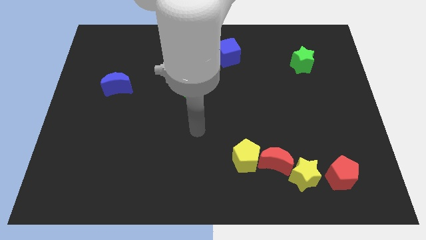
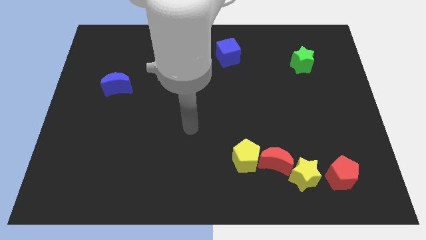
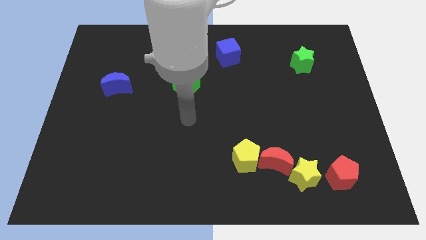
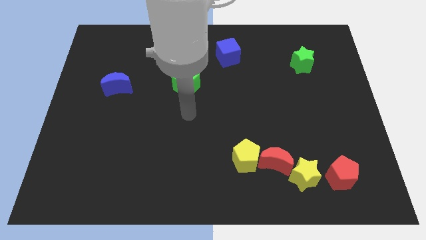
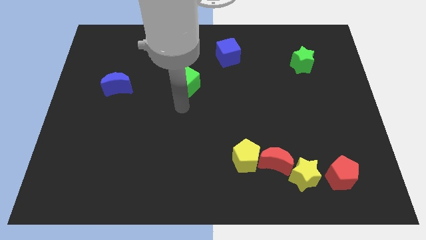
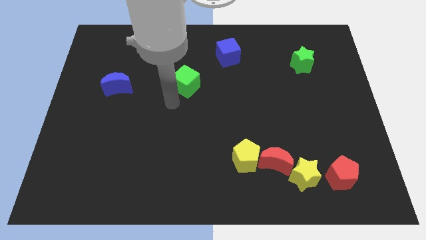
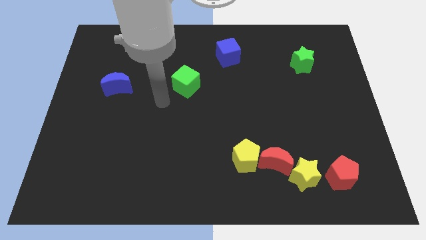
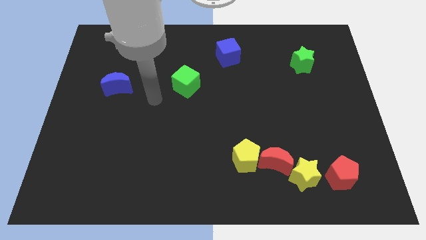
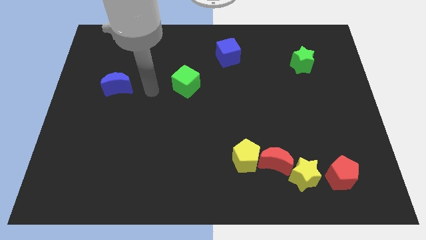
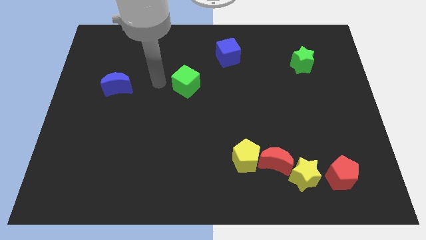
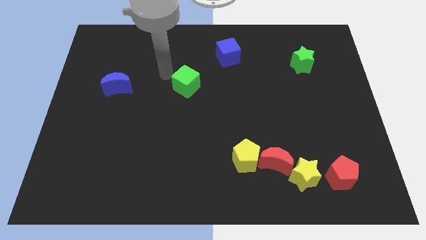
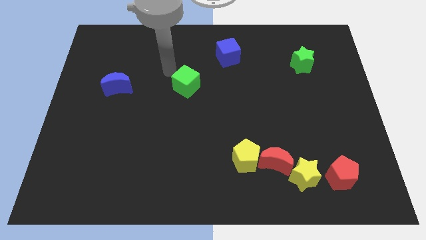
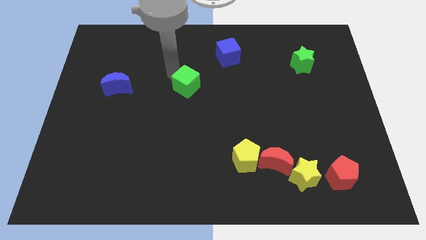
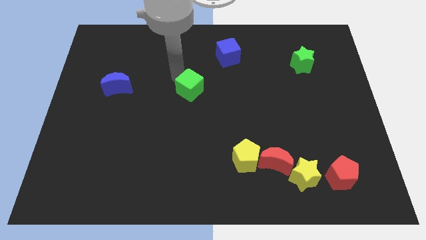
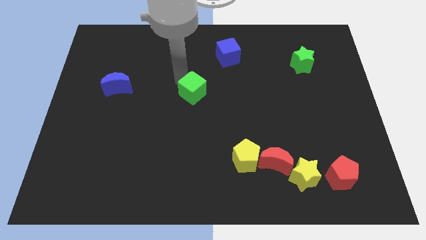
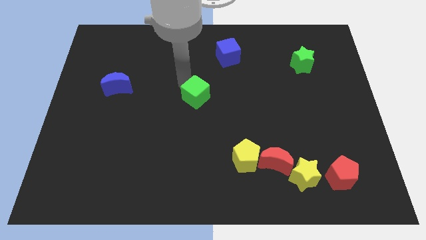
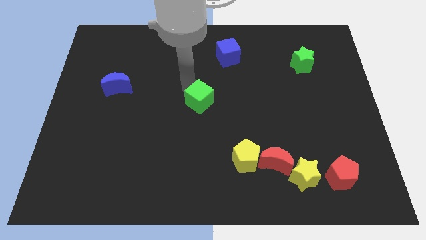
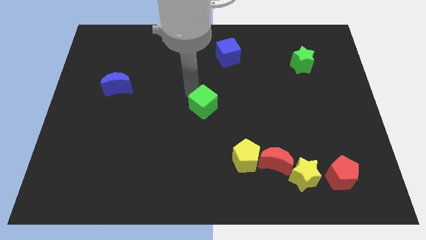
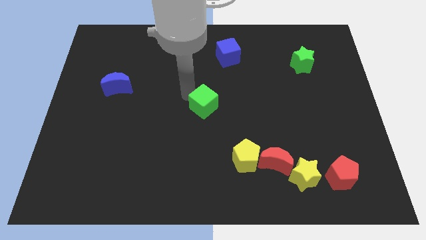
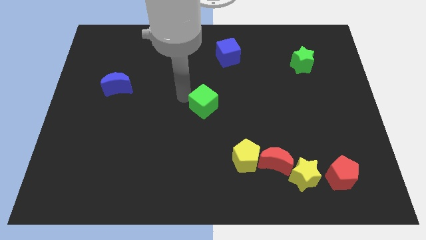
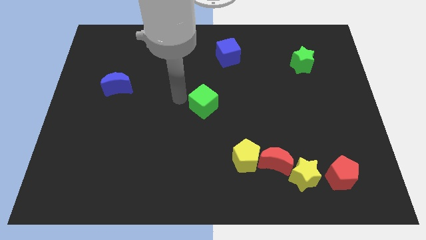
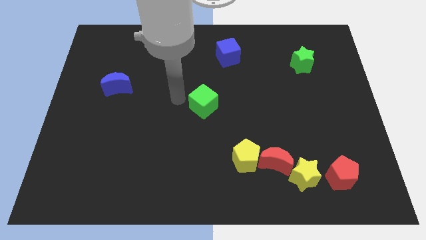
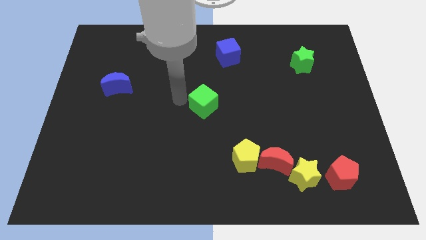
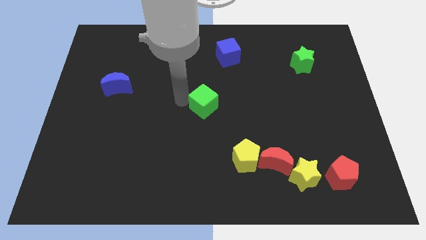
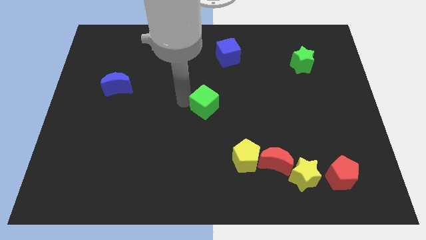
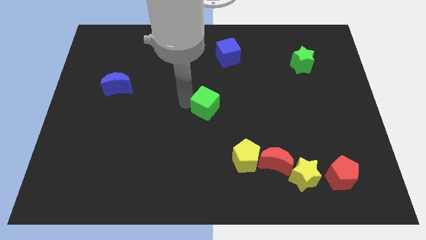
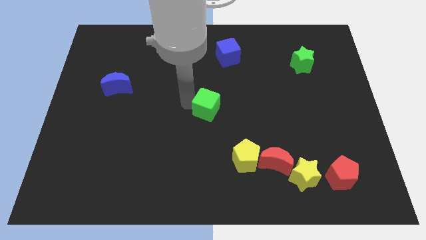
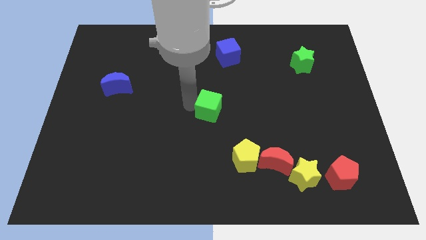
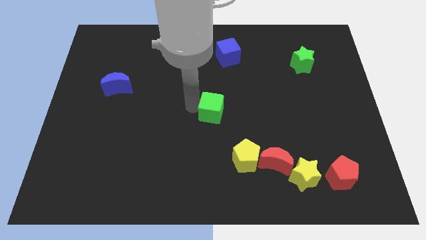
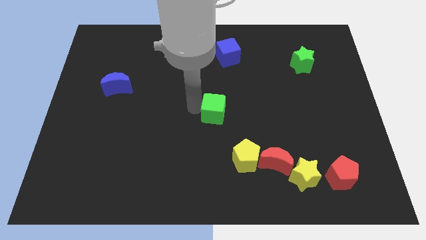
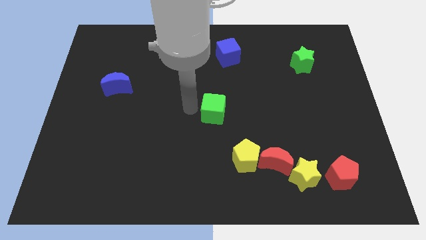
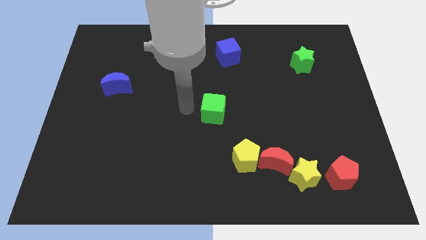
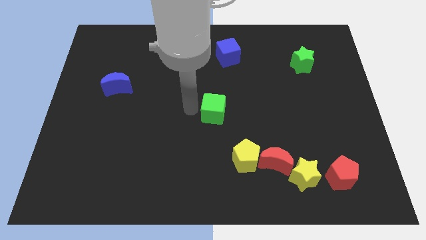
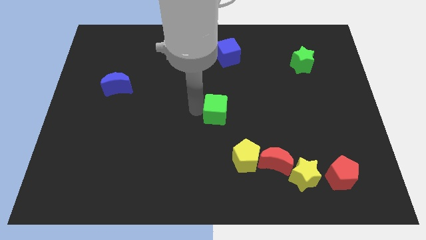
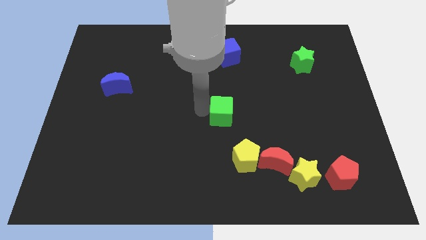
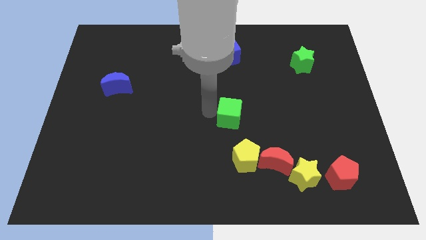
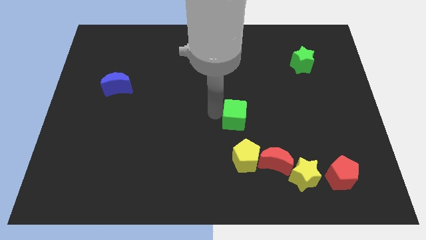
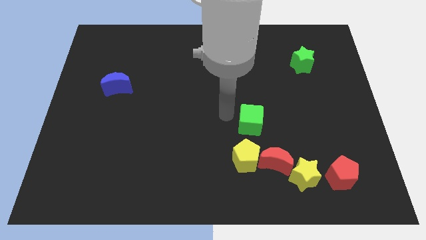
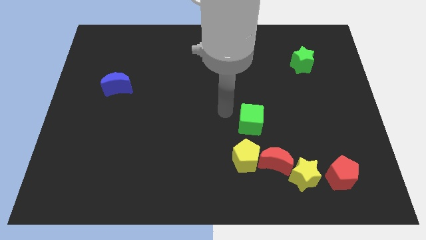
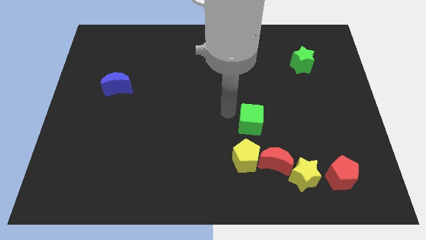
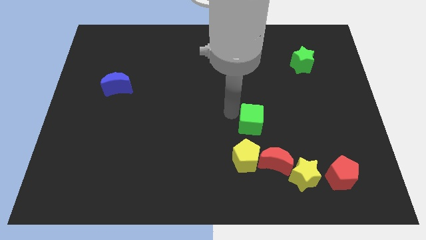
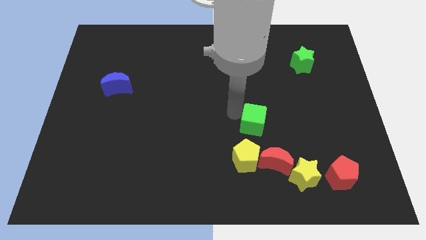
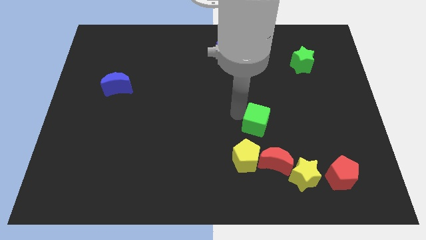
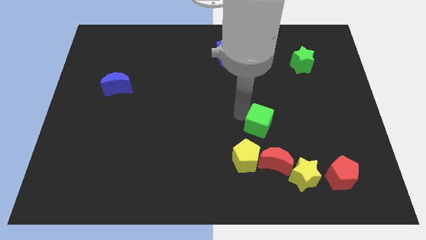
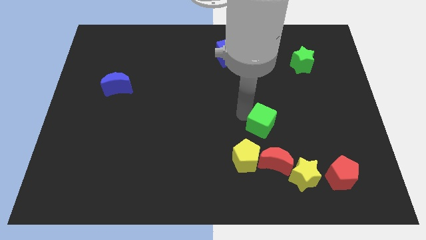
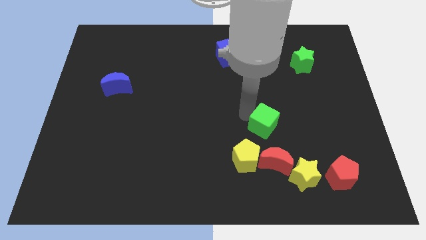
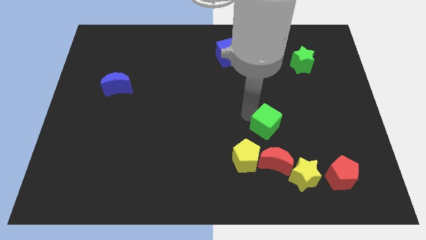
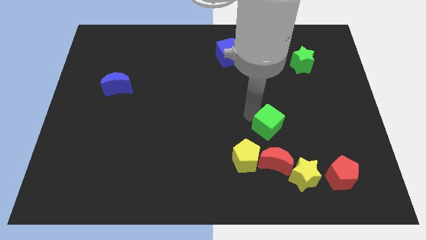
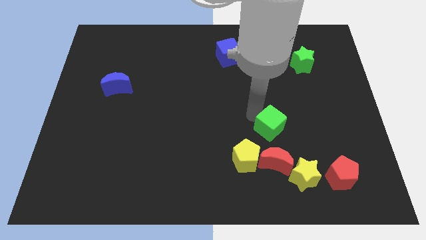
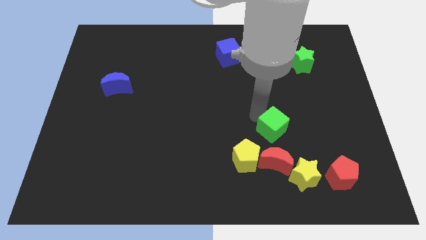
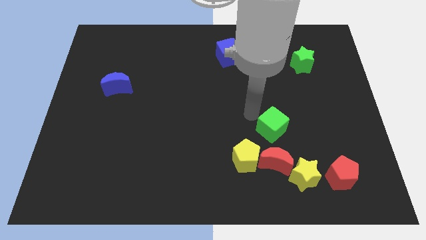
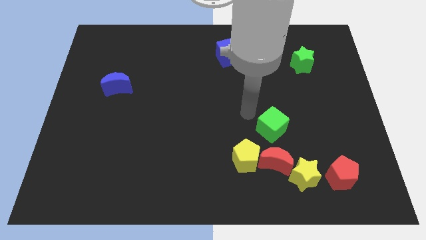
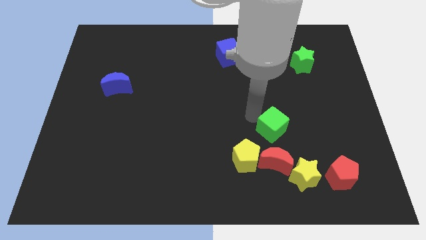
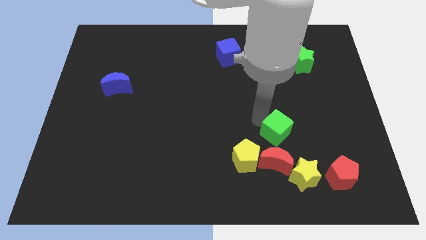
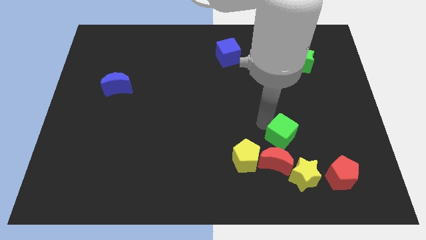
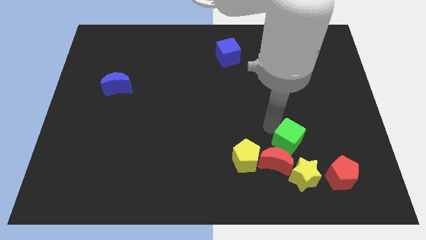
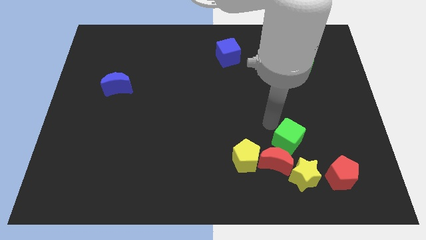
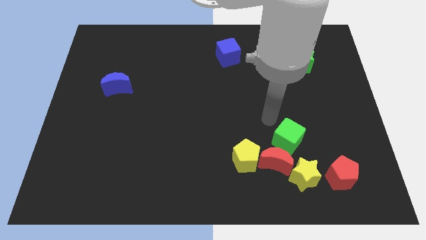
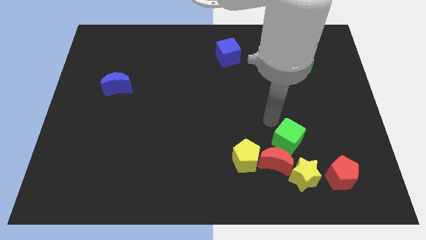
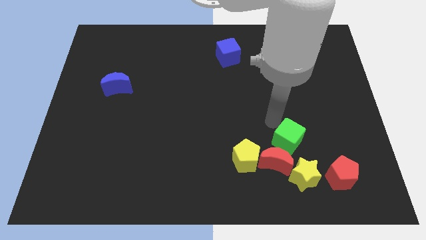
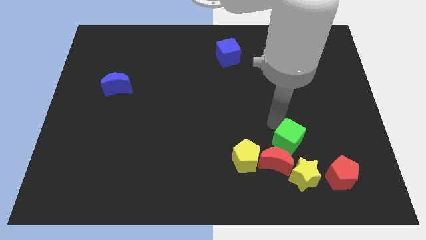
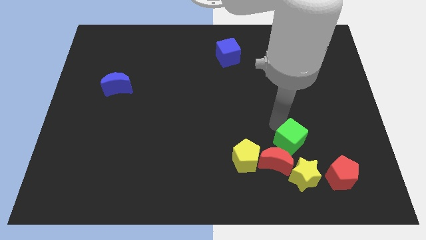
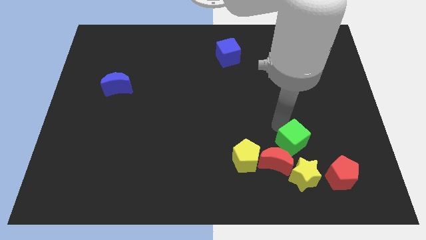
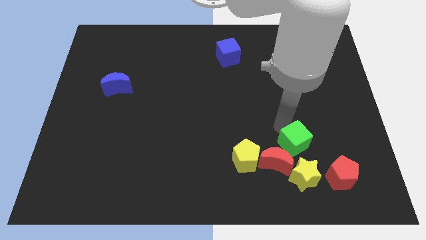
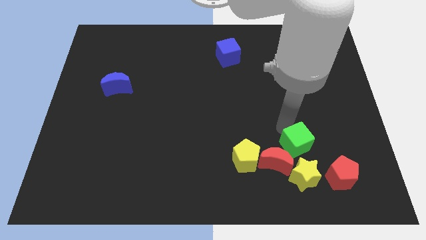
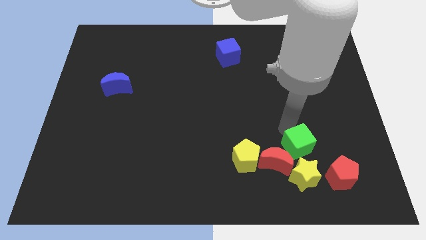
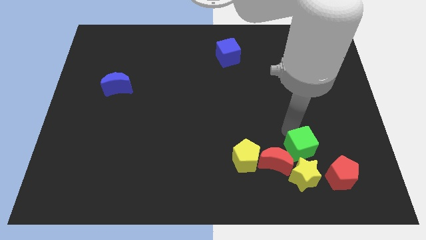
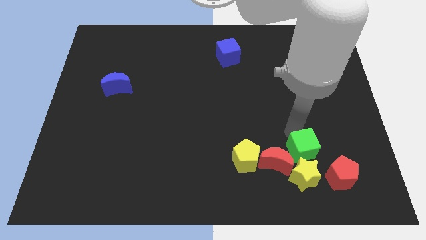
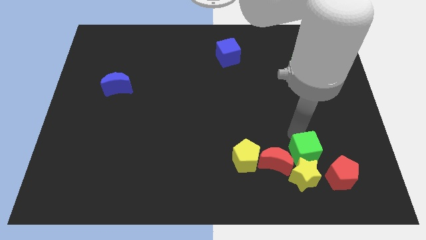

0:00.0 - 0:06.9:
put the green cube close to the yellow star
